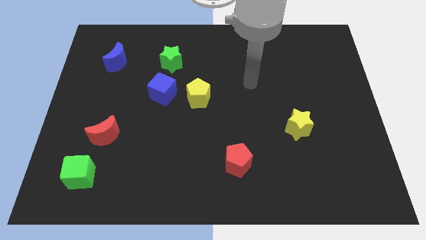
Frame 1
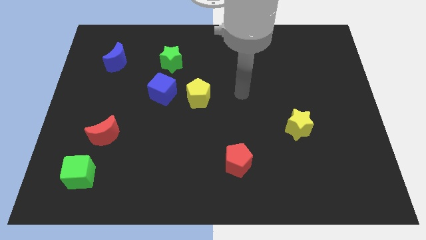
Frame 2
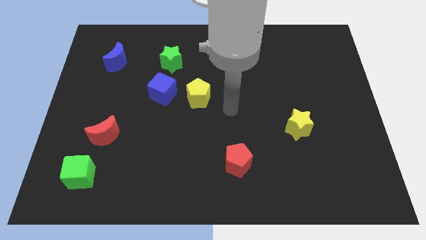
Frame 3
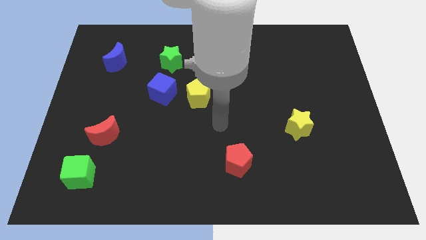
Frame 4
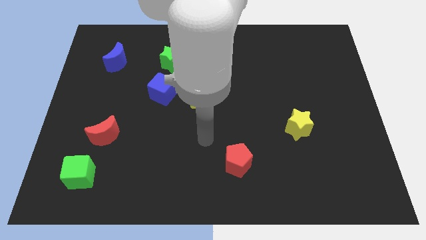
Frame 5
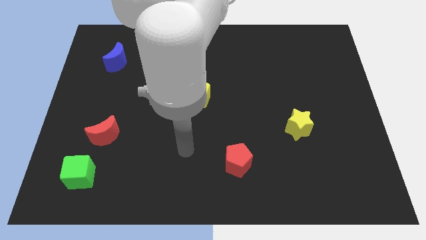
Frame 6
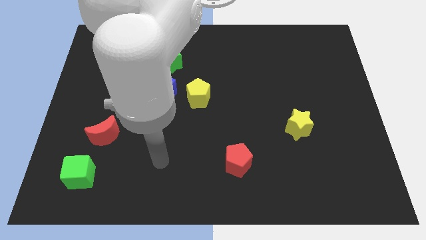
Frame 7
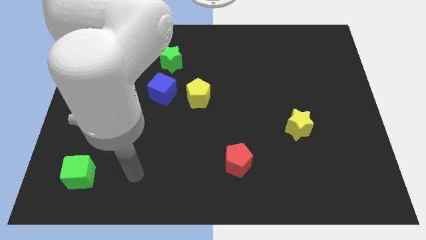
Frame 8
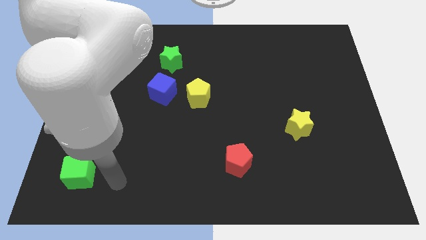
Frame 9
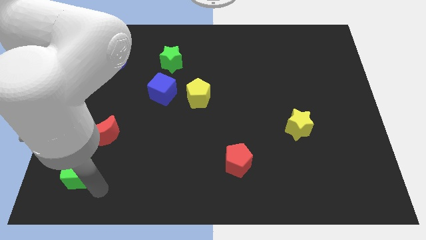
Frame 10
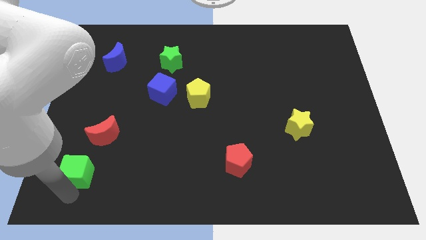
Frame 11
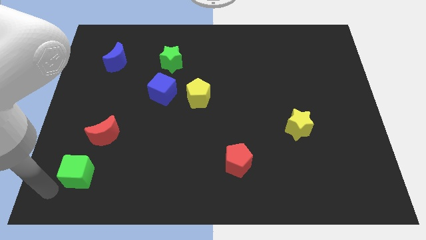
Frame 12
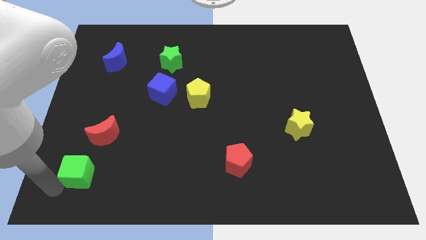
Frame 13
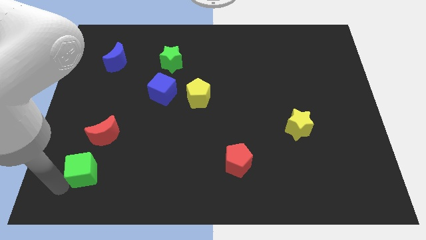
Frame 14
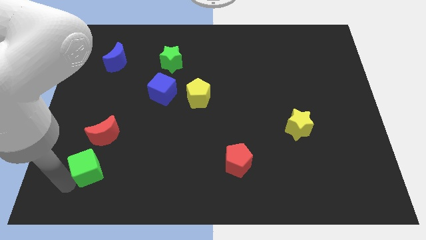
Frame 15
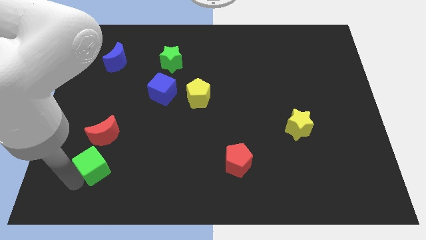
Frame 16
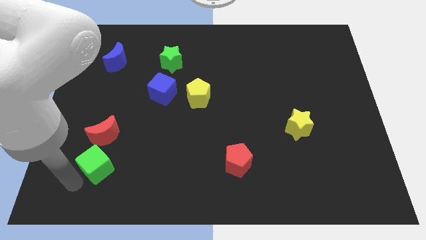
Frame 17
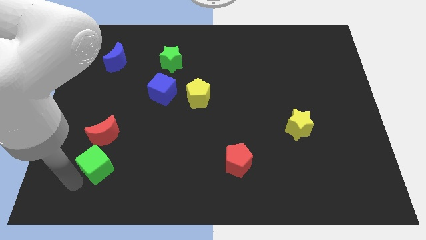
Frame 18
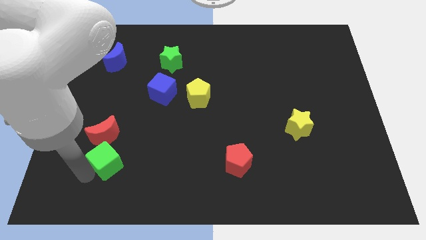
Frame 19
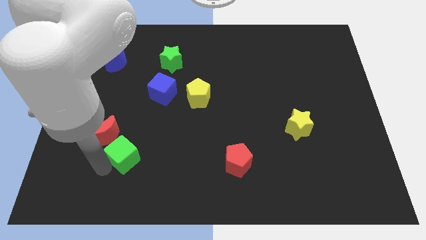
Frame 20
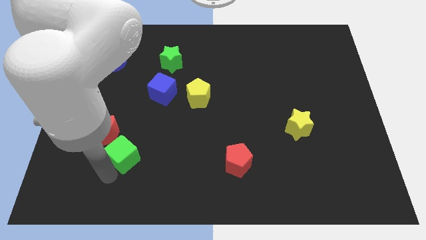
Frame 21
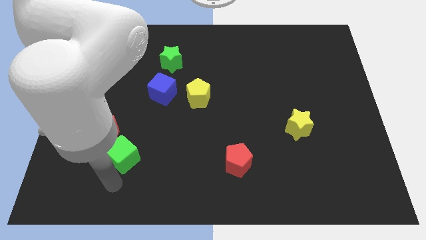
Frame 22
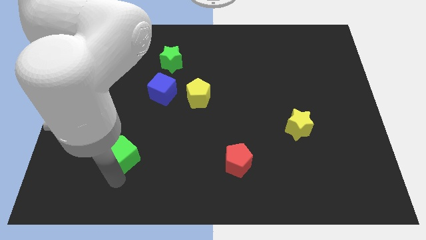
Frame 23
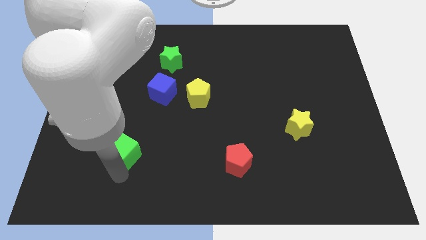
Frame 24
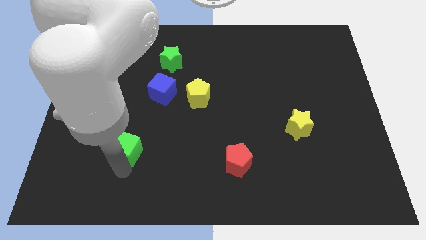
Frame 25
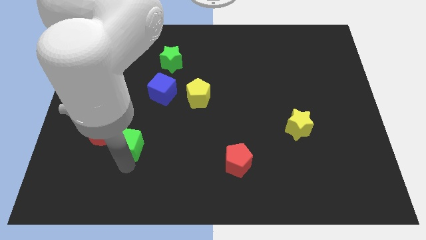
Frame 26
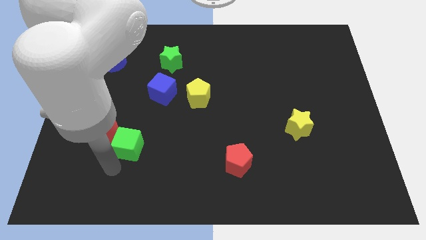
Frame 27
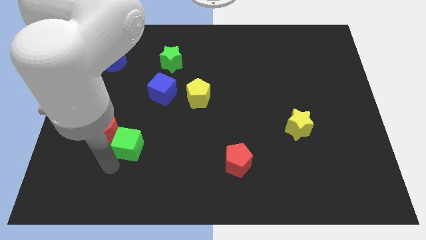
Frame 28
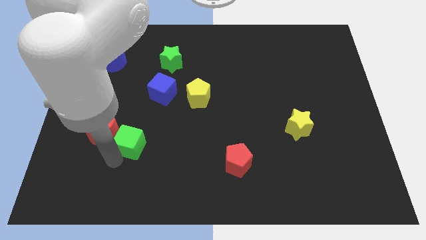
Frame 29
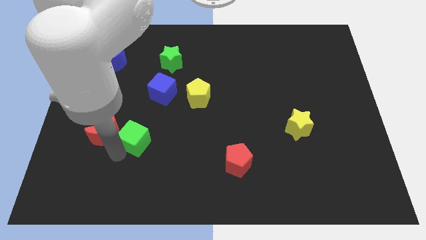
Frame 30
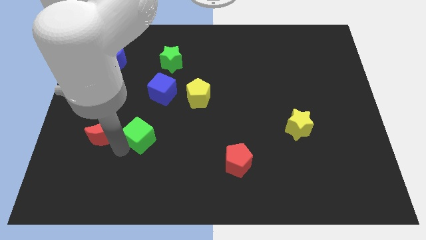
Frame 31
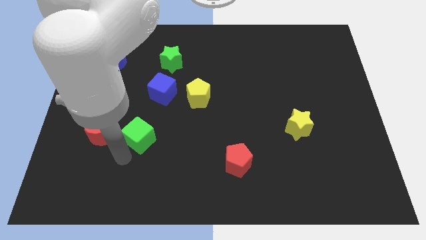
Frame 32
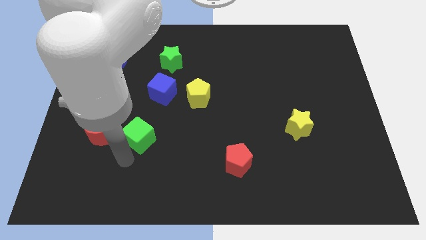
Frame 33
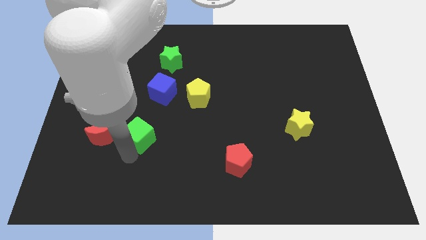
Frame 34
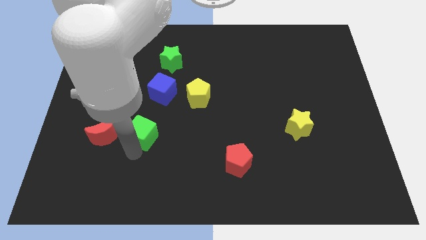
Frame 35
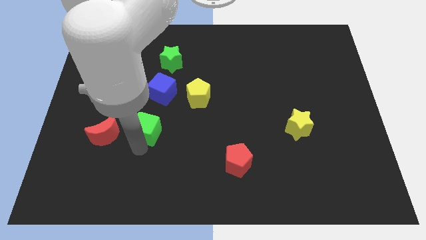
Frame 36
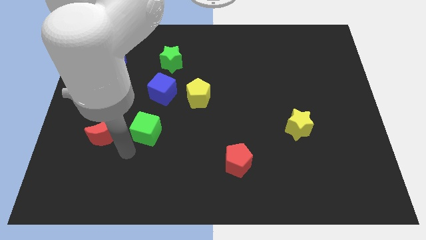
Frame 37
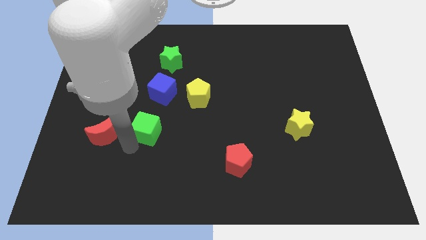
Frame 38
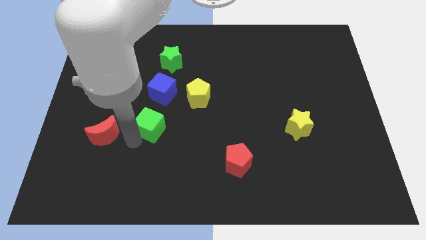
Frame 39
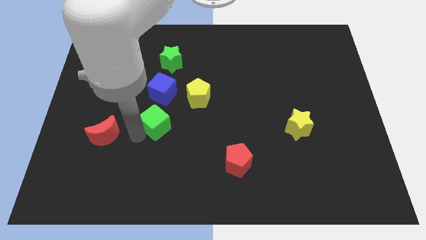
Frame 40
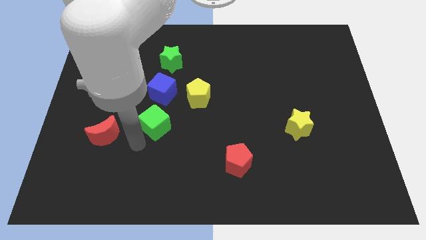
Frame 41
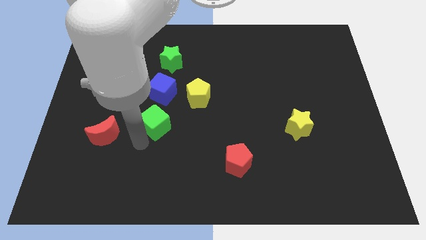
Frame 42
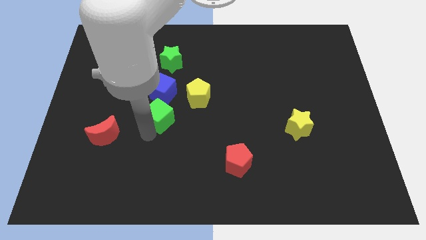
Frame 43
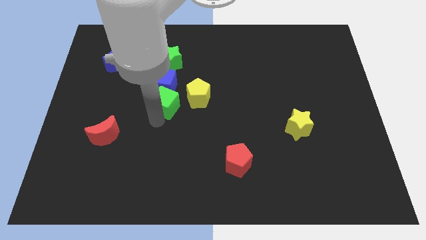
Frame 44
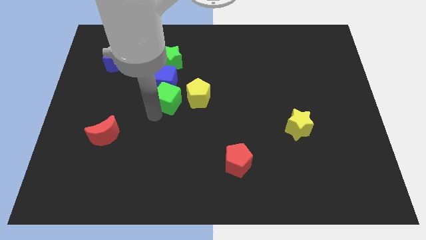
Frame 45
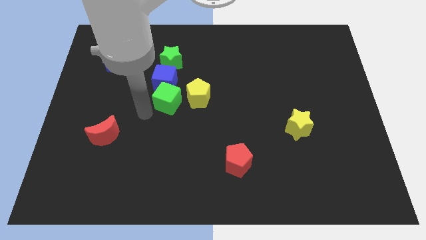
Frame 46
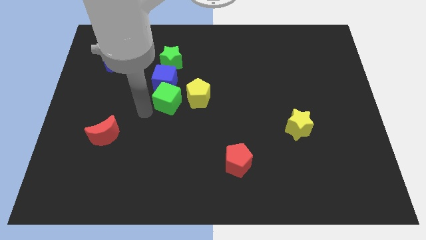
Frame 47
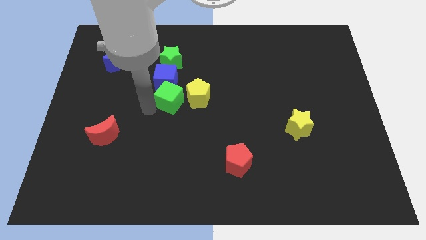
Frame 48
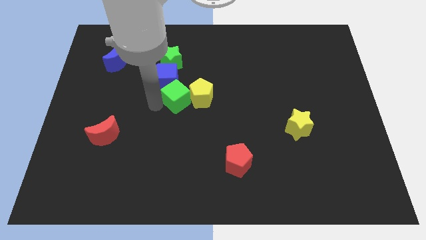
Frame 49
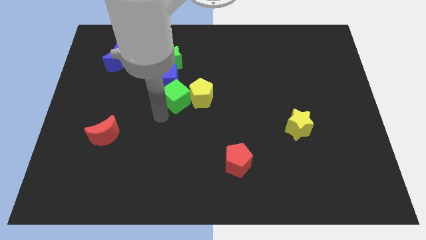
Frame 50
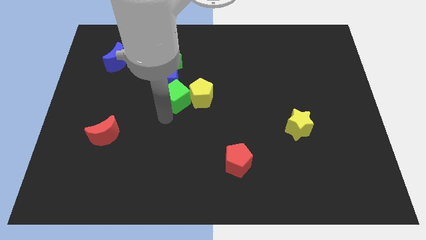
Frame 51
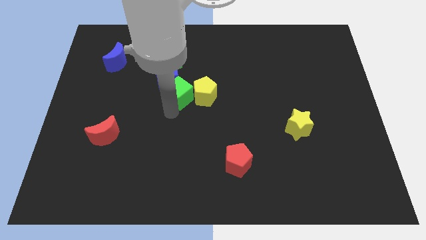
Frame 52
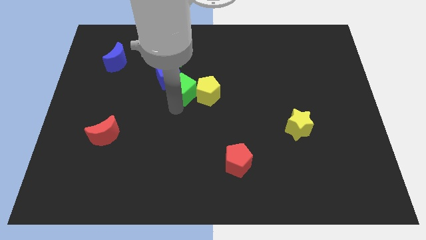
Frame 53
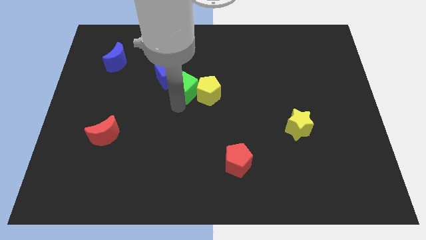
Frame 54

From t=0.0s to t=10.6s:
move the green cube to the bottom right of the green star

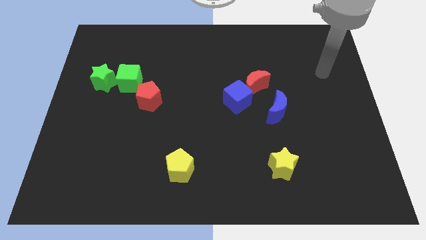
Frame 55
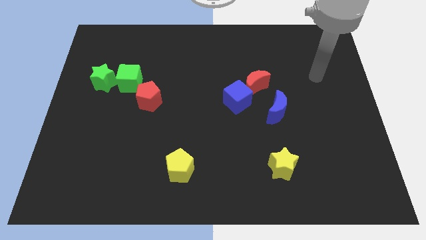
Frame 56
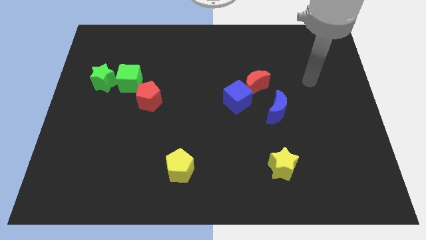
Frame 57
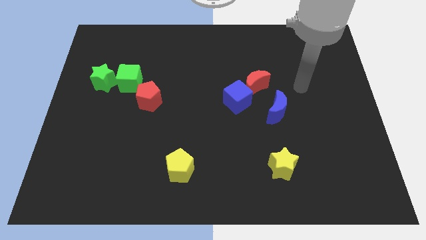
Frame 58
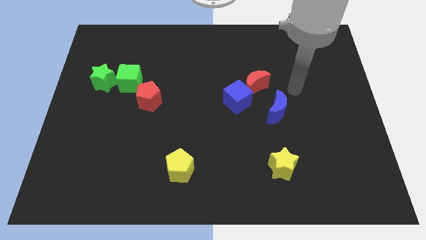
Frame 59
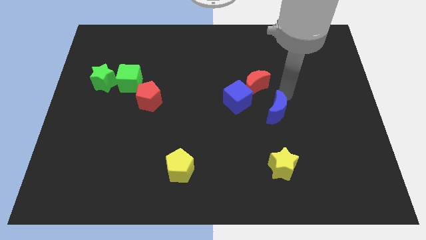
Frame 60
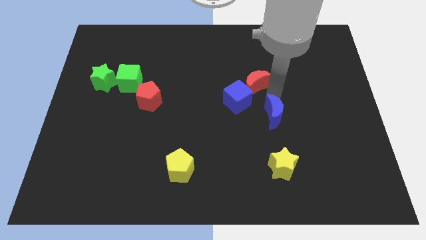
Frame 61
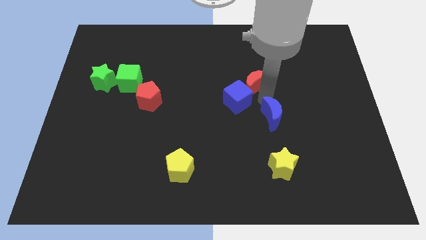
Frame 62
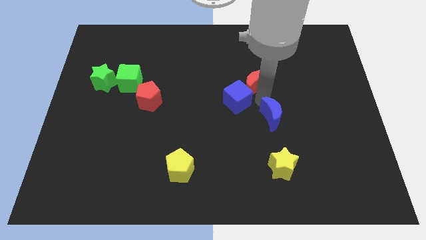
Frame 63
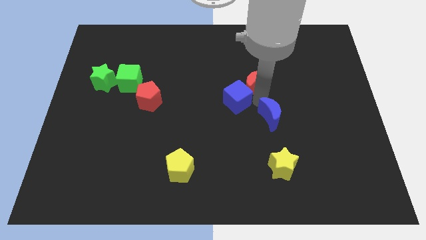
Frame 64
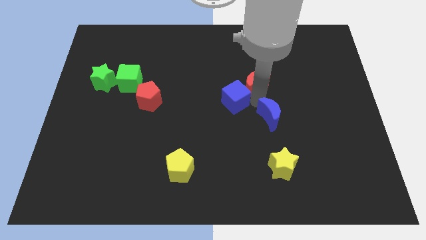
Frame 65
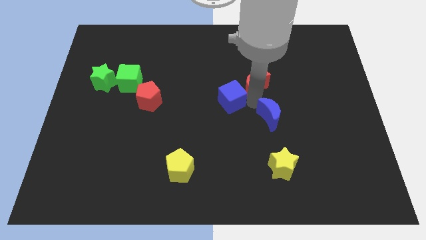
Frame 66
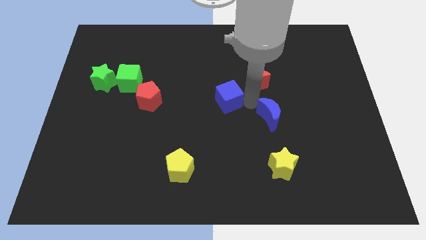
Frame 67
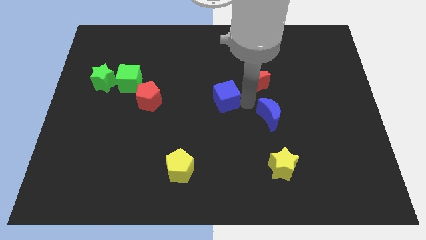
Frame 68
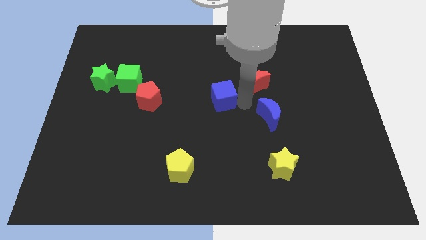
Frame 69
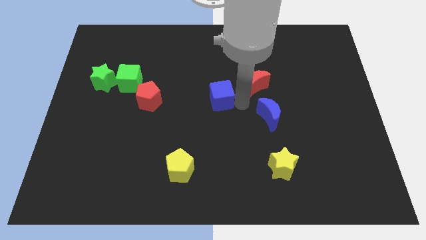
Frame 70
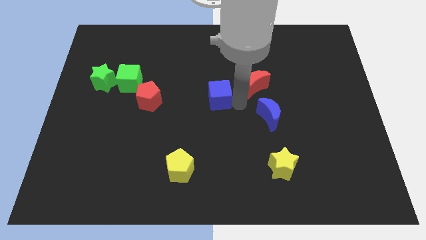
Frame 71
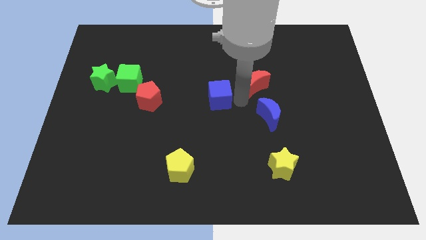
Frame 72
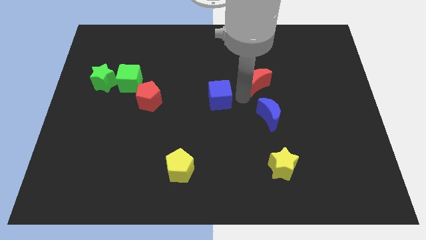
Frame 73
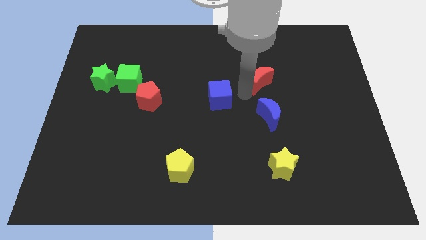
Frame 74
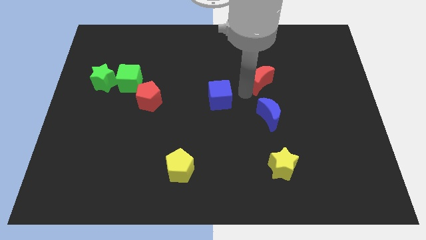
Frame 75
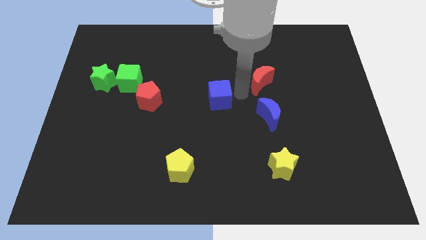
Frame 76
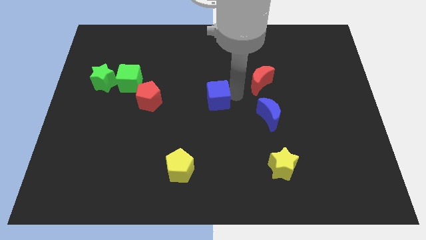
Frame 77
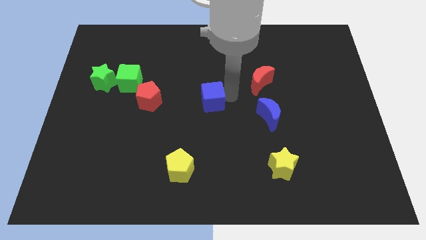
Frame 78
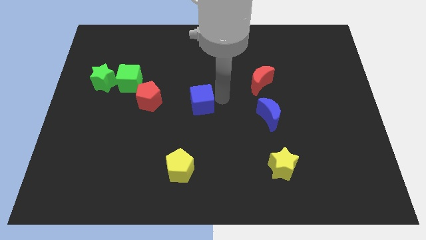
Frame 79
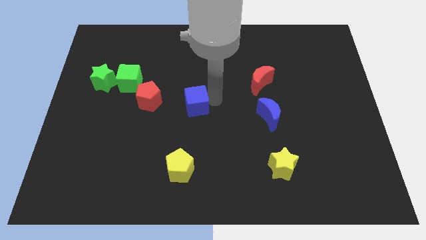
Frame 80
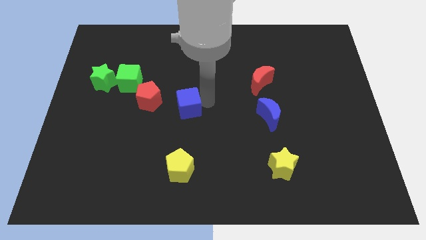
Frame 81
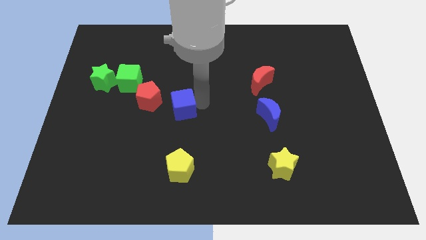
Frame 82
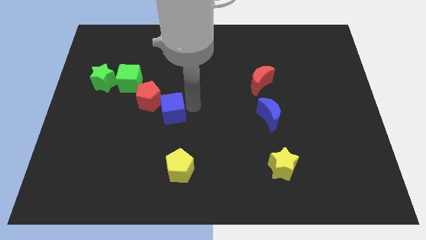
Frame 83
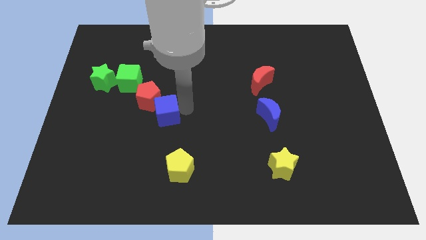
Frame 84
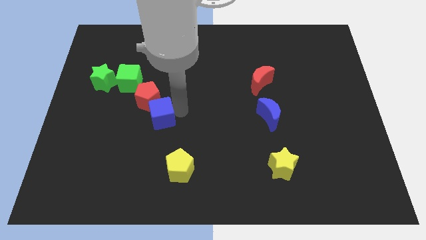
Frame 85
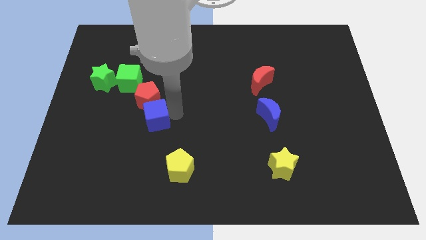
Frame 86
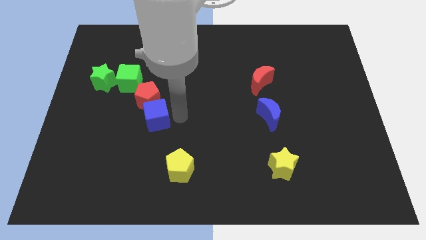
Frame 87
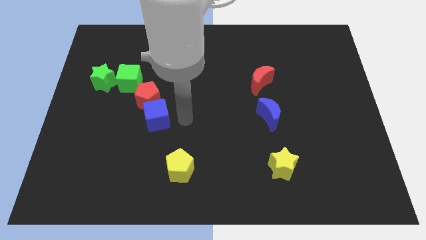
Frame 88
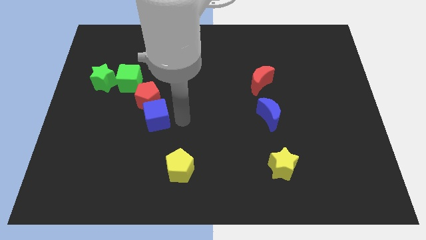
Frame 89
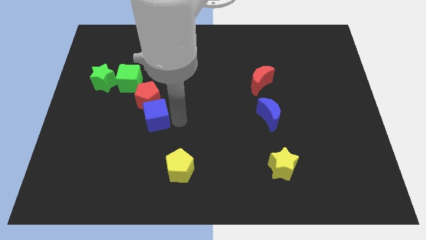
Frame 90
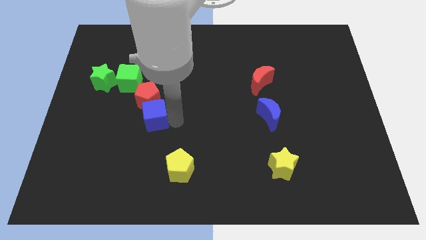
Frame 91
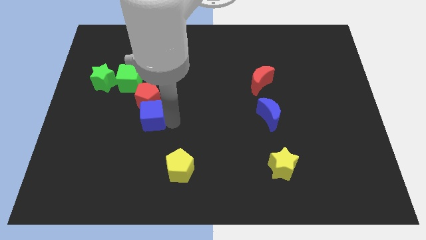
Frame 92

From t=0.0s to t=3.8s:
put the blue cube to the bottom left of the red pentagon
